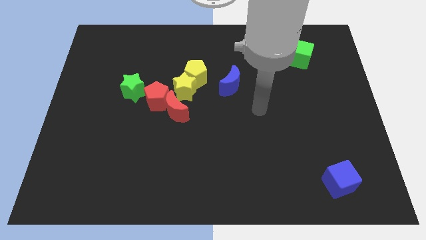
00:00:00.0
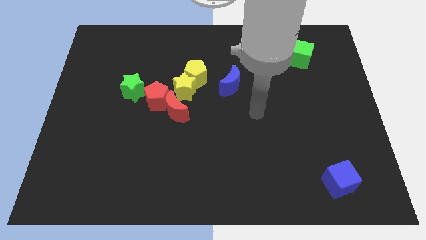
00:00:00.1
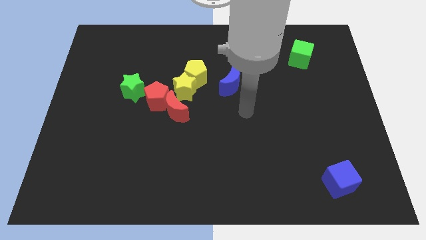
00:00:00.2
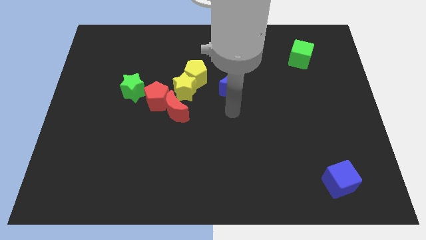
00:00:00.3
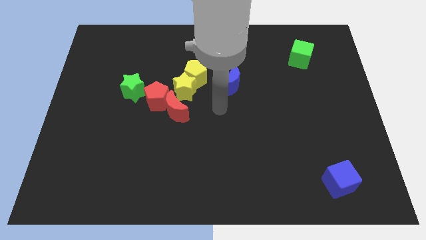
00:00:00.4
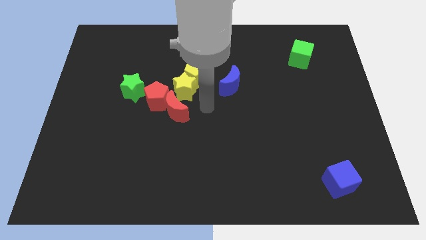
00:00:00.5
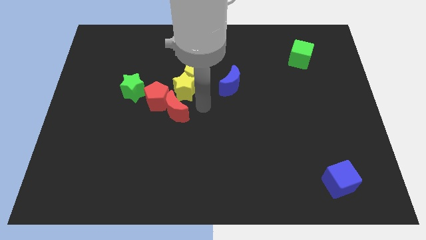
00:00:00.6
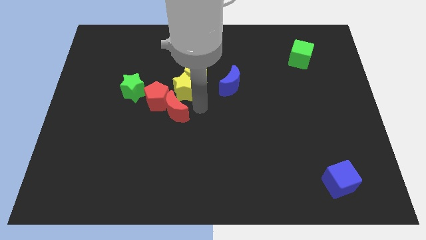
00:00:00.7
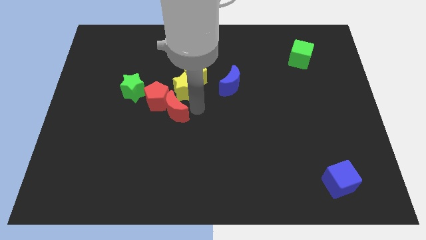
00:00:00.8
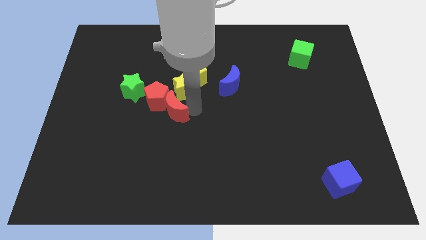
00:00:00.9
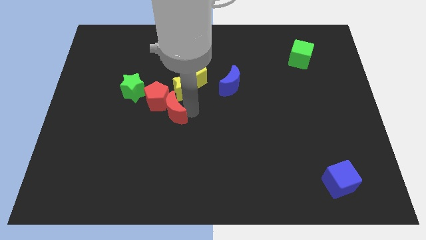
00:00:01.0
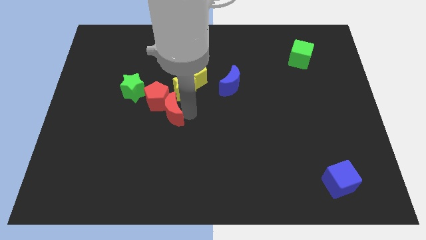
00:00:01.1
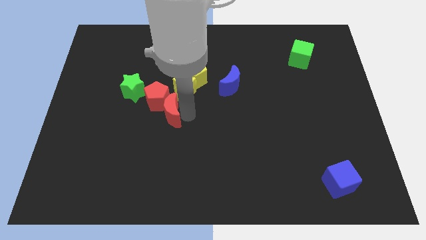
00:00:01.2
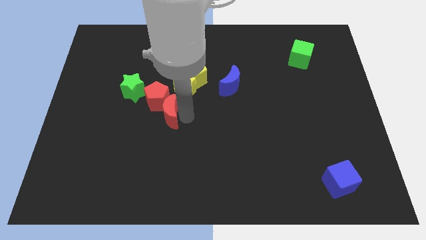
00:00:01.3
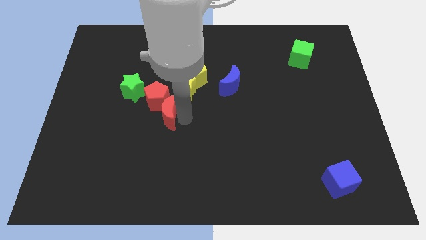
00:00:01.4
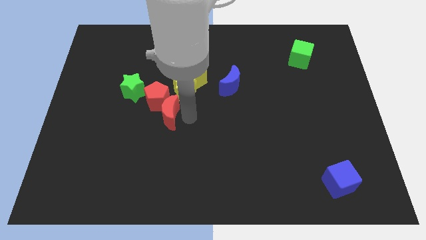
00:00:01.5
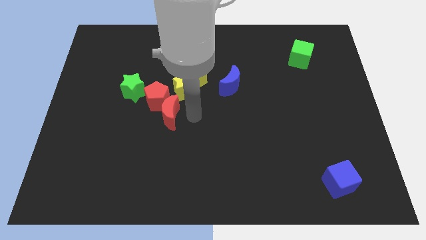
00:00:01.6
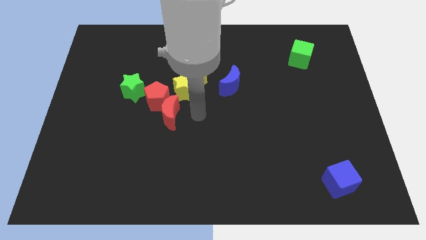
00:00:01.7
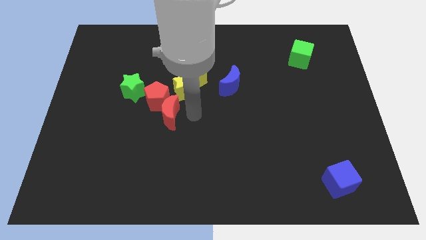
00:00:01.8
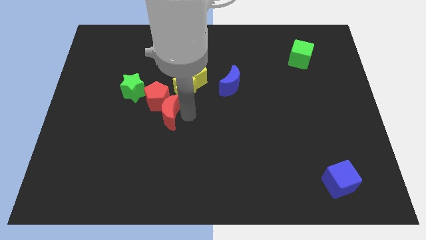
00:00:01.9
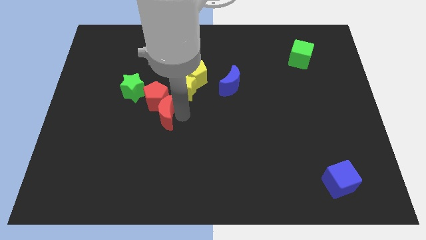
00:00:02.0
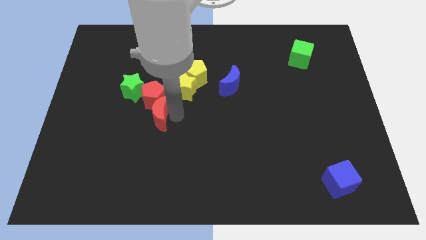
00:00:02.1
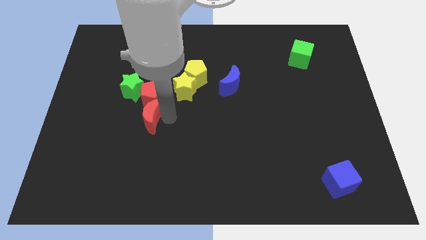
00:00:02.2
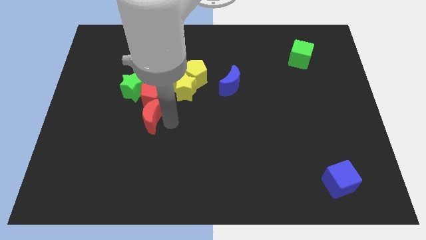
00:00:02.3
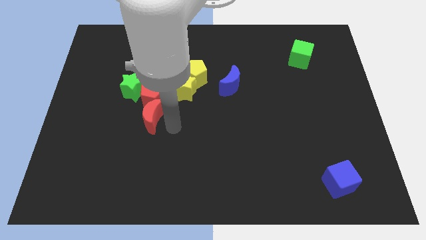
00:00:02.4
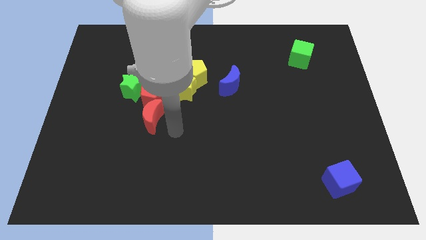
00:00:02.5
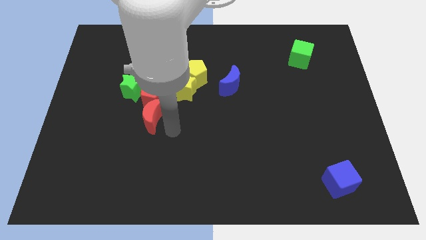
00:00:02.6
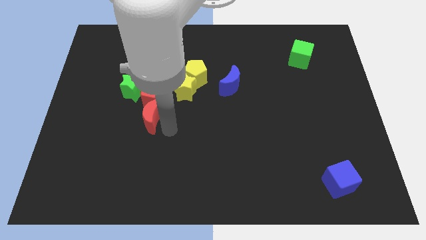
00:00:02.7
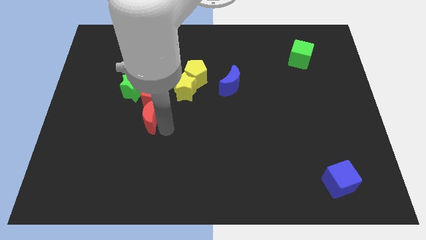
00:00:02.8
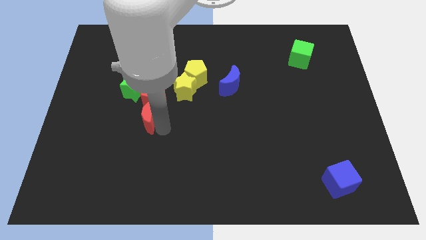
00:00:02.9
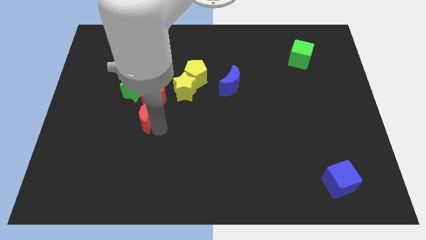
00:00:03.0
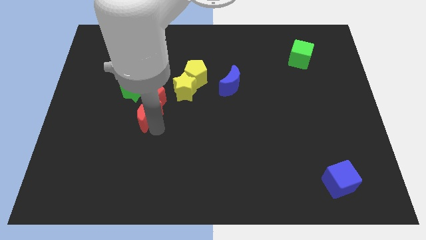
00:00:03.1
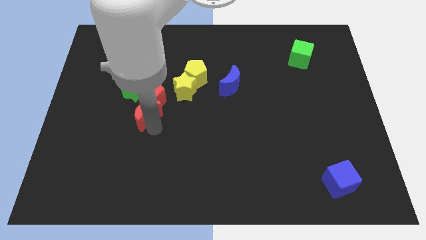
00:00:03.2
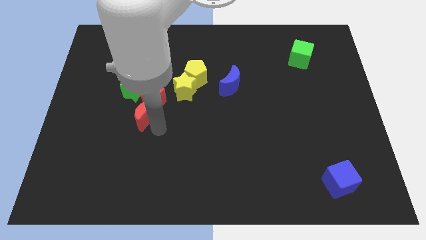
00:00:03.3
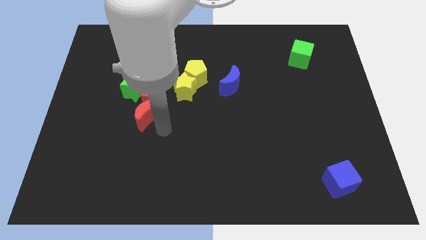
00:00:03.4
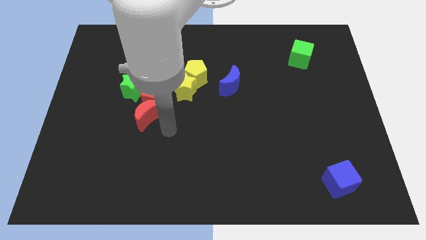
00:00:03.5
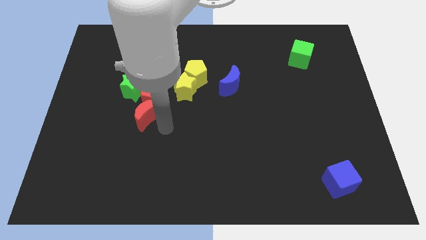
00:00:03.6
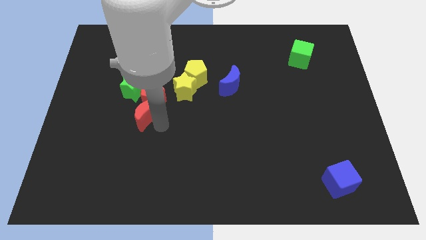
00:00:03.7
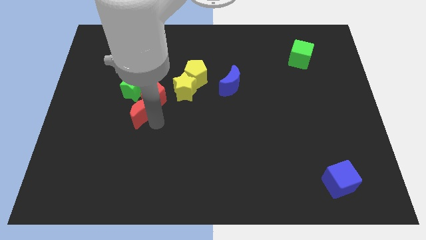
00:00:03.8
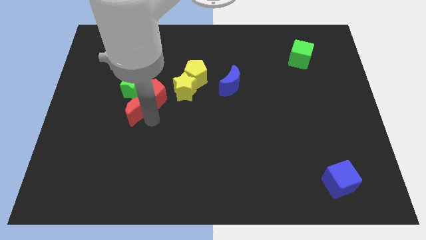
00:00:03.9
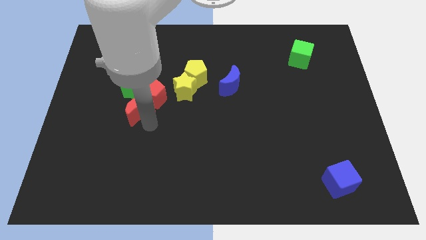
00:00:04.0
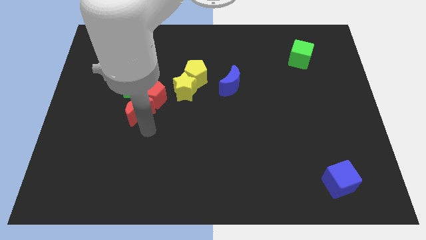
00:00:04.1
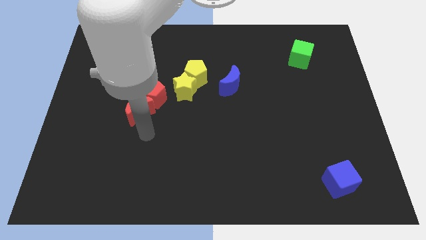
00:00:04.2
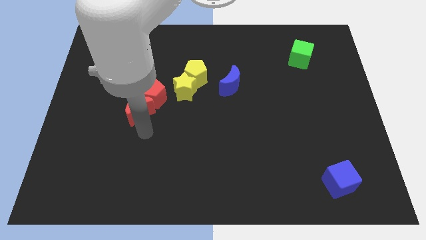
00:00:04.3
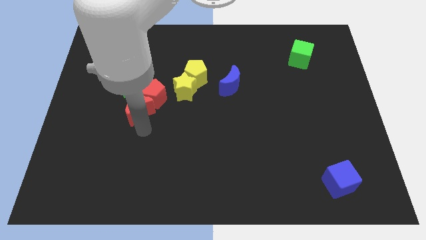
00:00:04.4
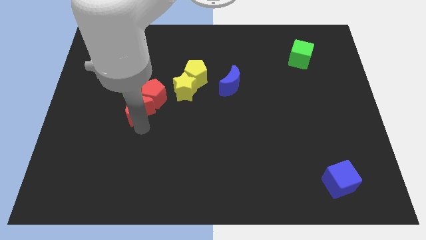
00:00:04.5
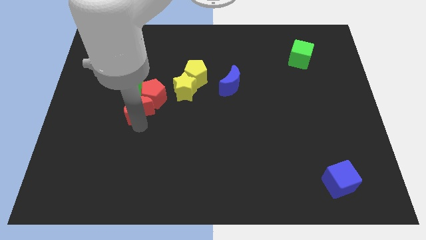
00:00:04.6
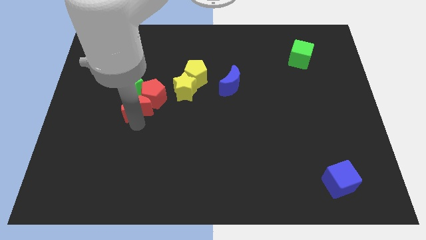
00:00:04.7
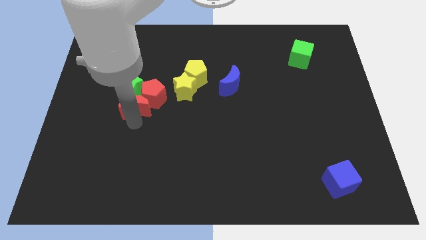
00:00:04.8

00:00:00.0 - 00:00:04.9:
move the red moon towards the green star

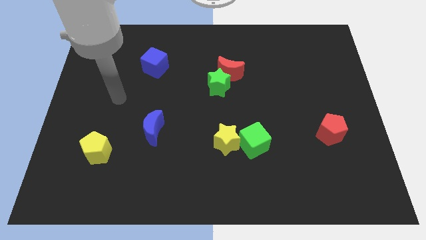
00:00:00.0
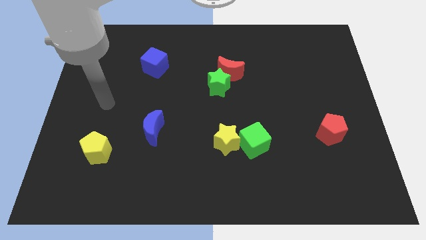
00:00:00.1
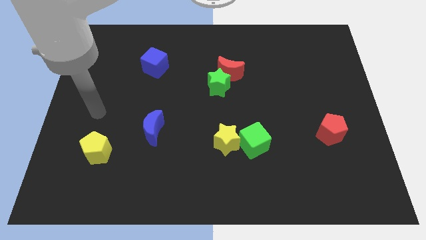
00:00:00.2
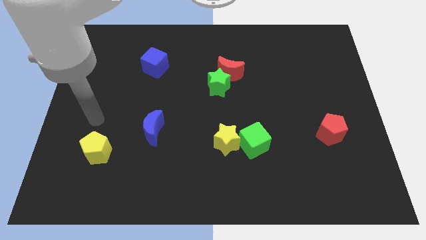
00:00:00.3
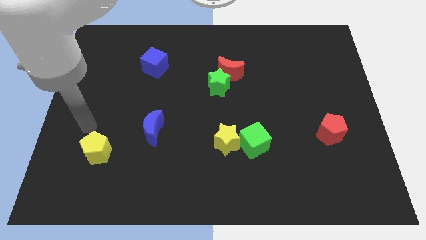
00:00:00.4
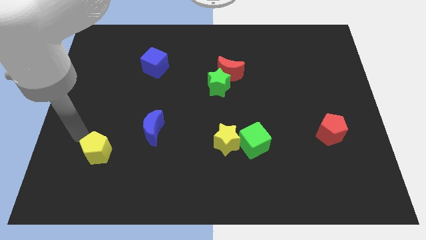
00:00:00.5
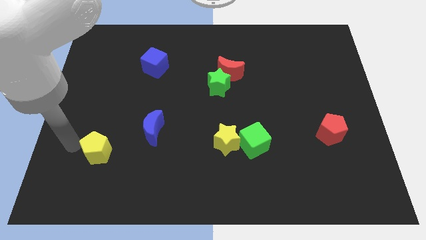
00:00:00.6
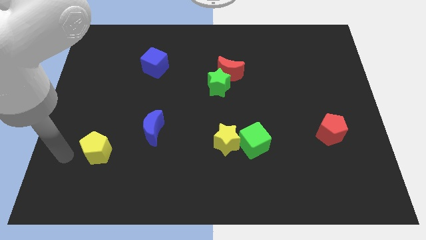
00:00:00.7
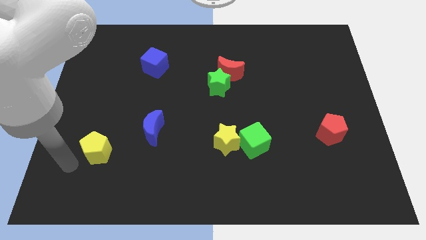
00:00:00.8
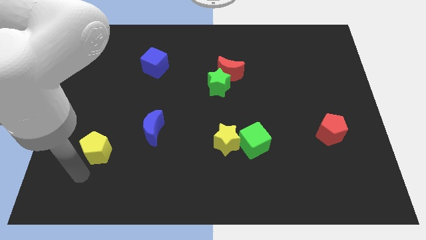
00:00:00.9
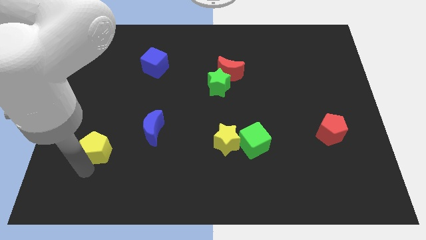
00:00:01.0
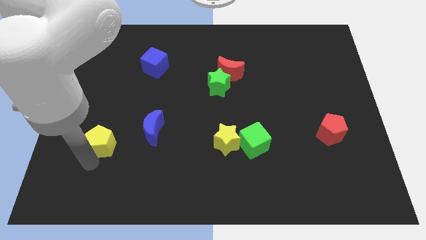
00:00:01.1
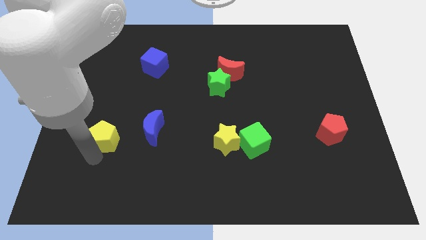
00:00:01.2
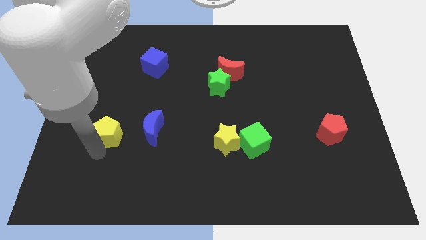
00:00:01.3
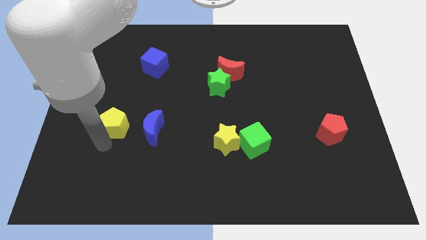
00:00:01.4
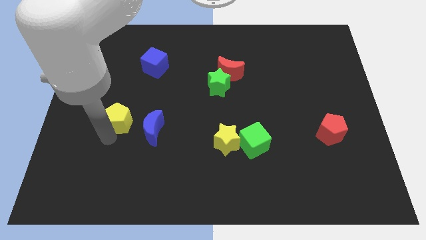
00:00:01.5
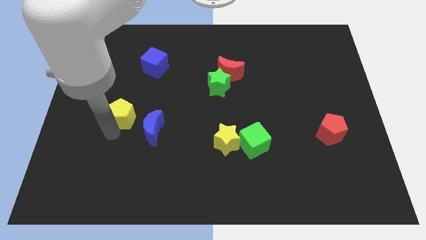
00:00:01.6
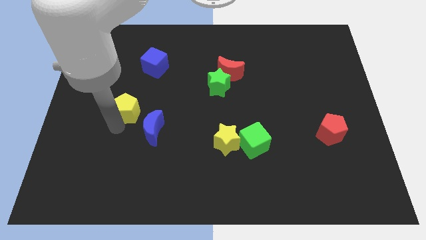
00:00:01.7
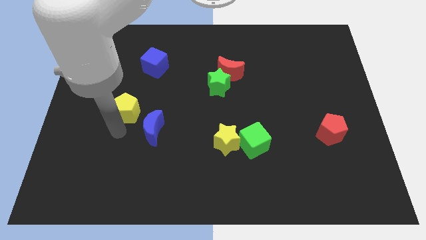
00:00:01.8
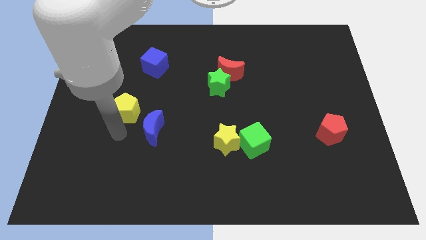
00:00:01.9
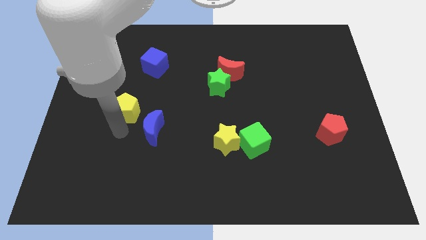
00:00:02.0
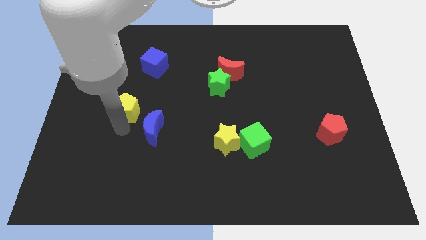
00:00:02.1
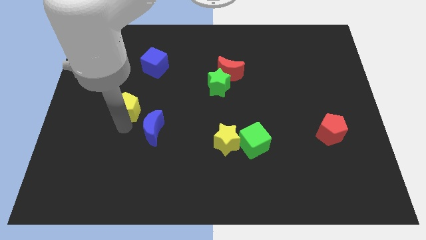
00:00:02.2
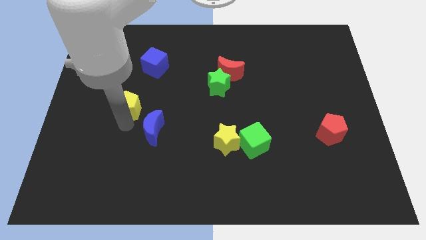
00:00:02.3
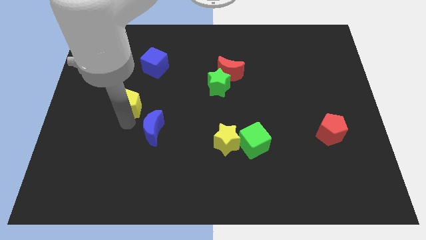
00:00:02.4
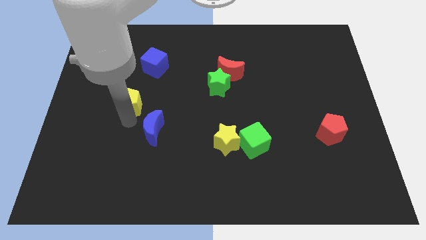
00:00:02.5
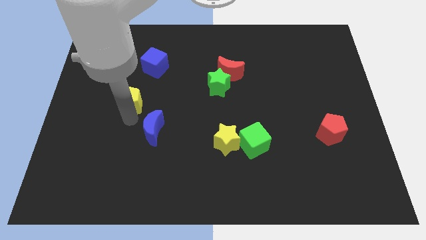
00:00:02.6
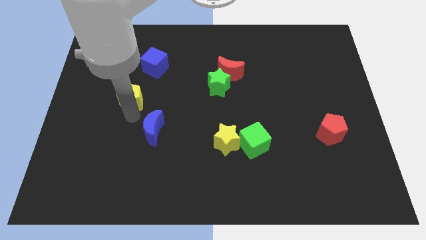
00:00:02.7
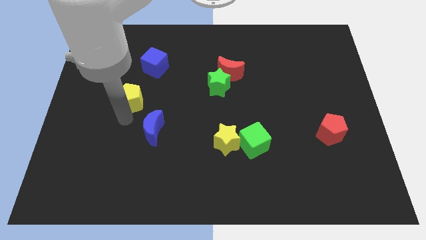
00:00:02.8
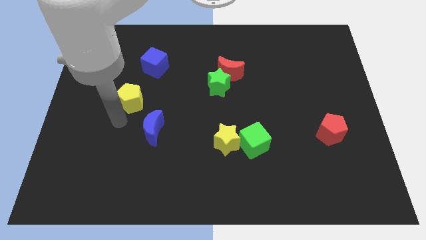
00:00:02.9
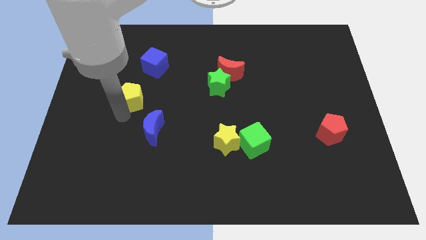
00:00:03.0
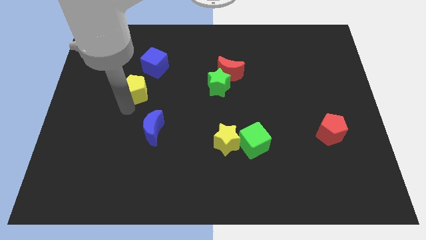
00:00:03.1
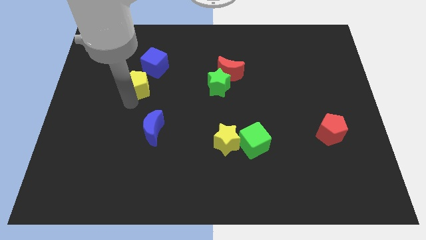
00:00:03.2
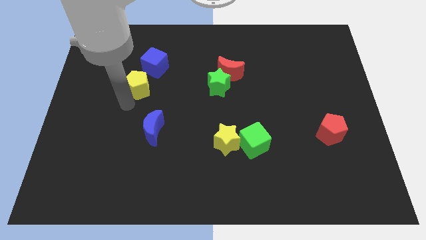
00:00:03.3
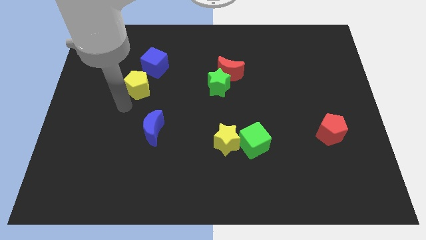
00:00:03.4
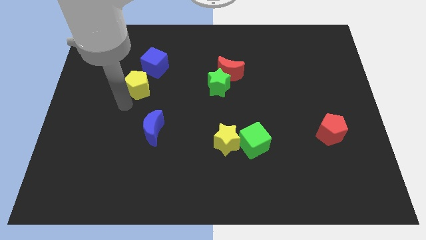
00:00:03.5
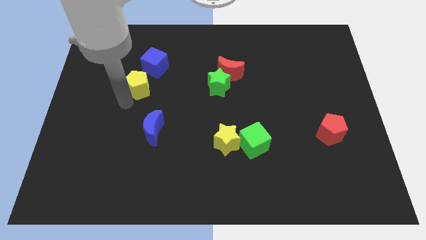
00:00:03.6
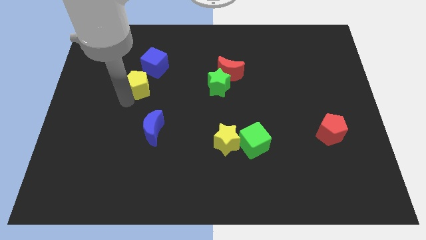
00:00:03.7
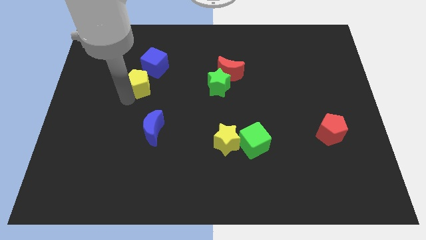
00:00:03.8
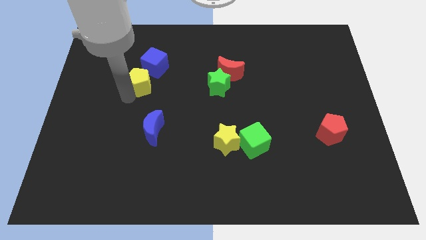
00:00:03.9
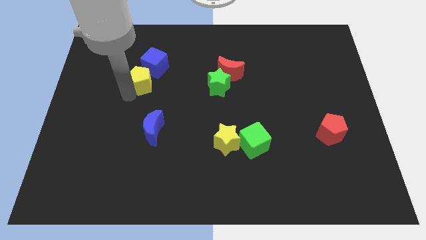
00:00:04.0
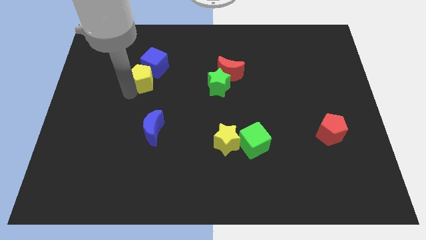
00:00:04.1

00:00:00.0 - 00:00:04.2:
push the yellow pentagon next to the blue cube
